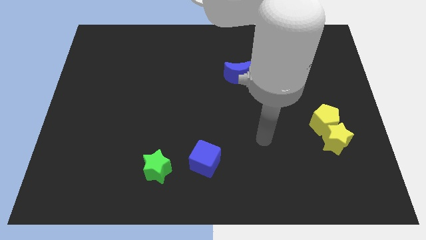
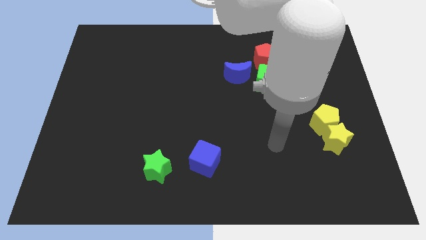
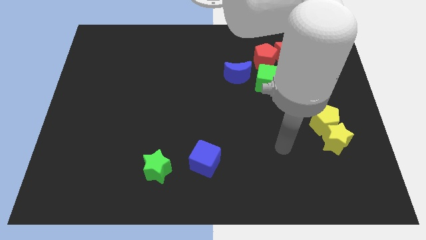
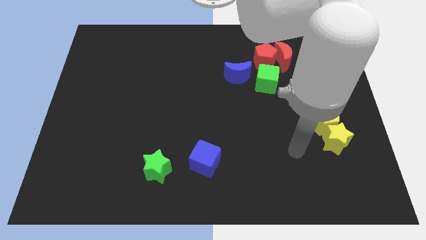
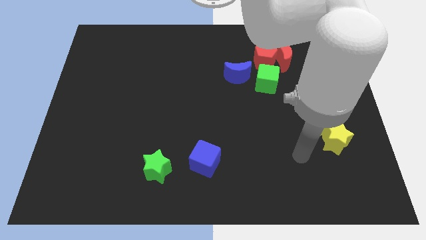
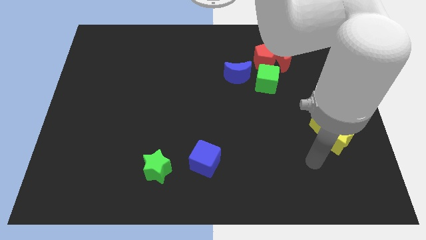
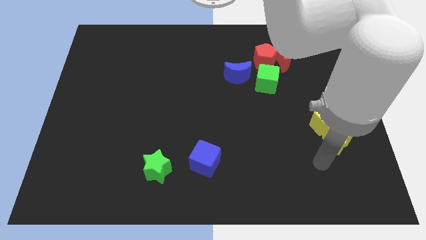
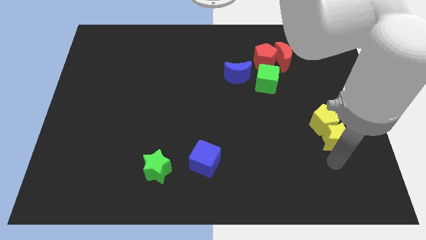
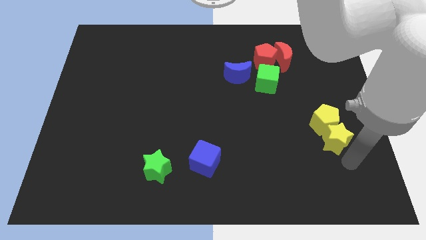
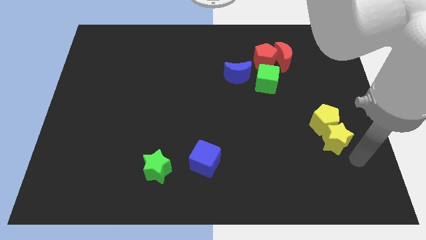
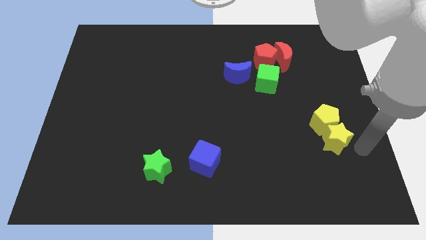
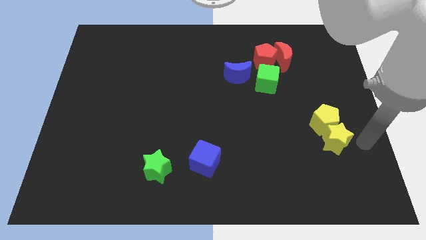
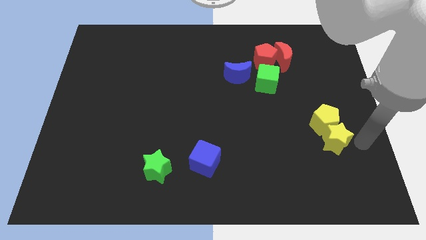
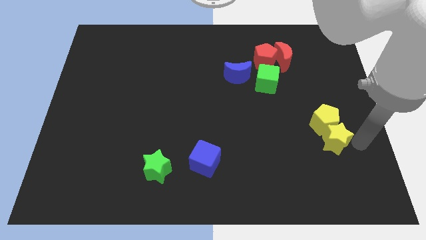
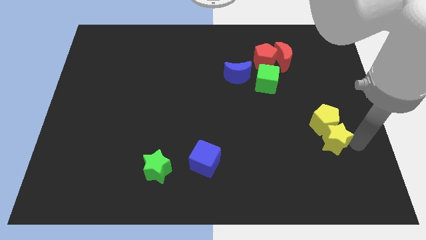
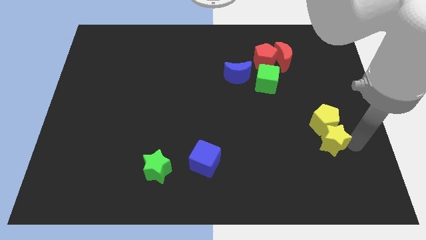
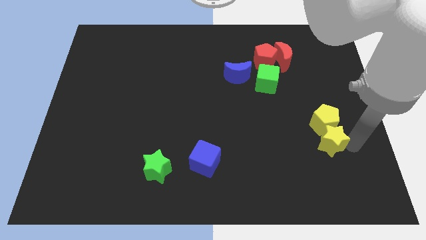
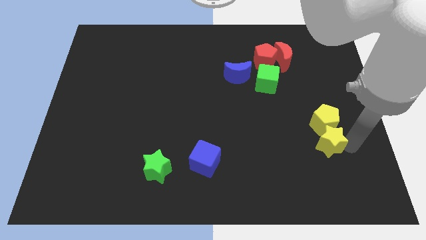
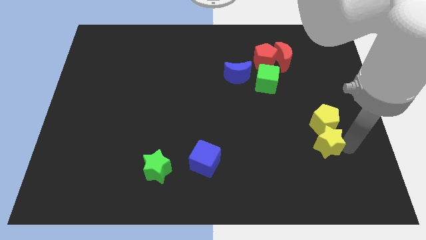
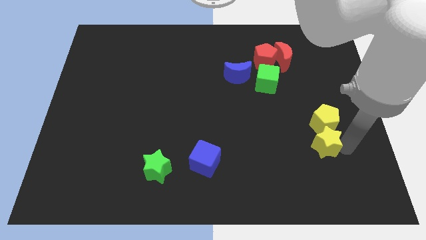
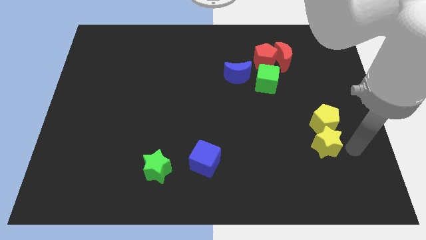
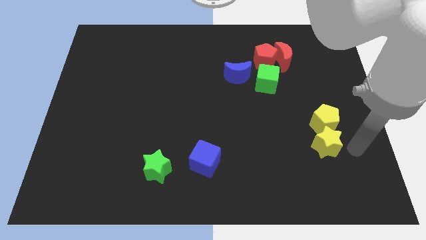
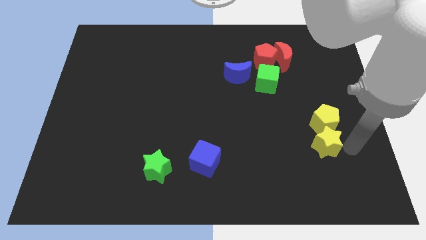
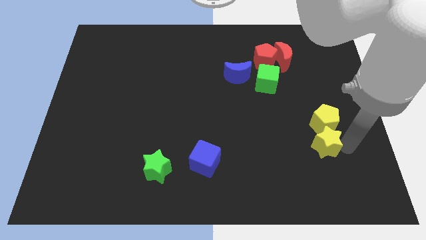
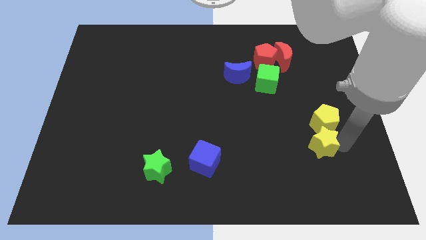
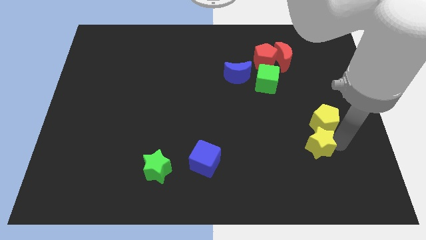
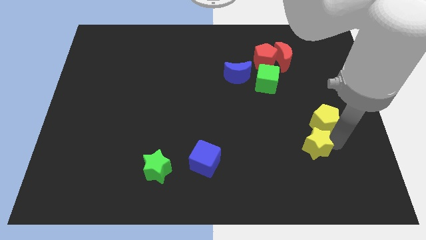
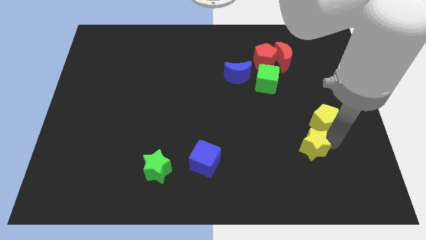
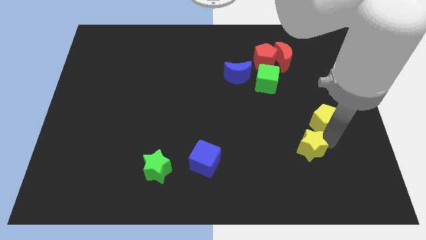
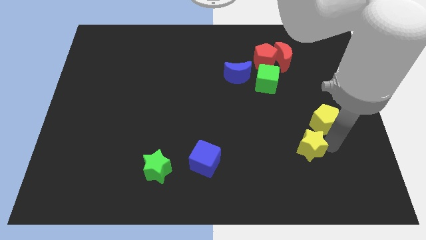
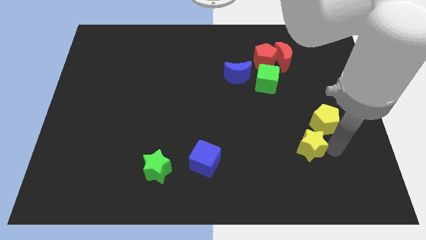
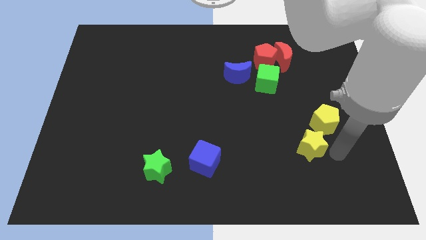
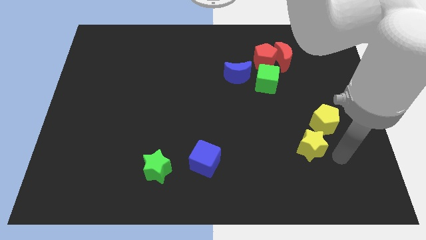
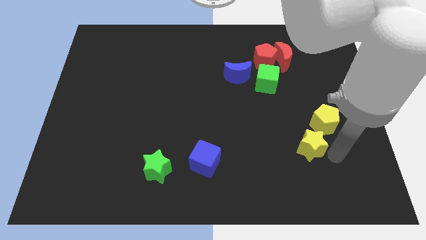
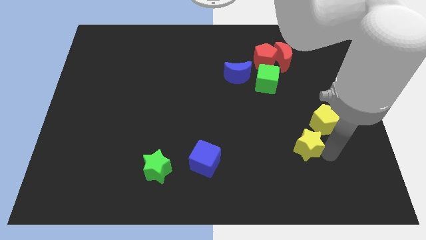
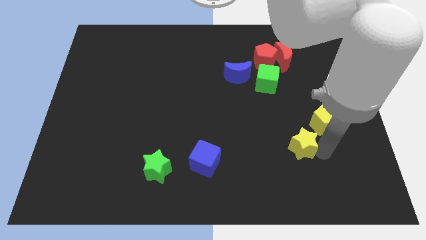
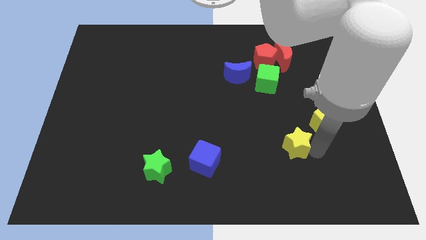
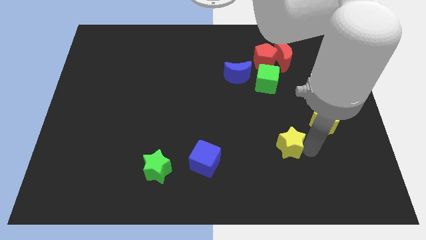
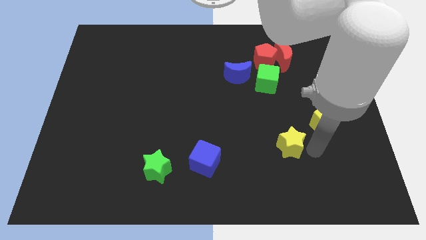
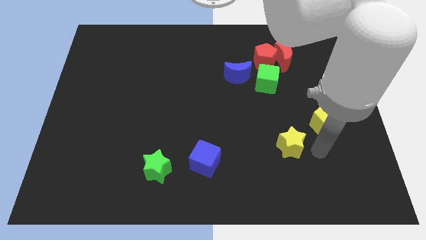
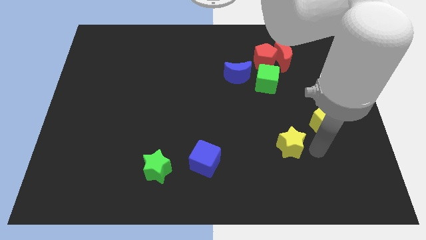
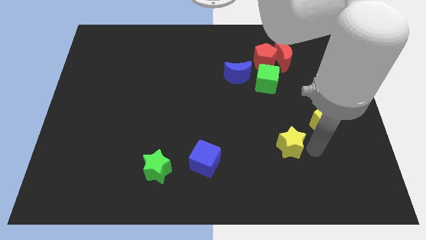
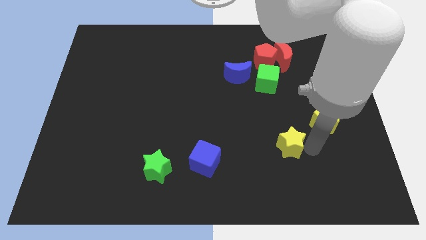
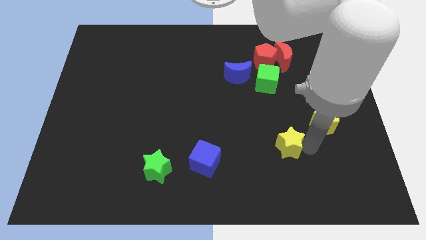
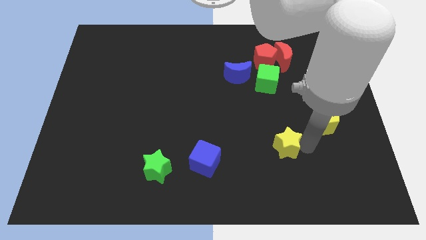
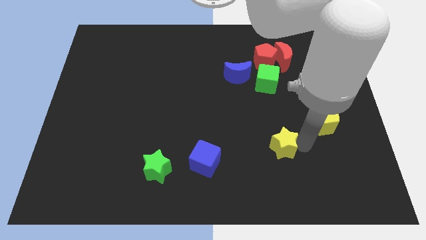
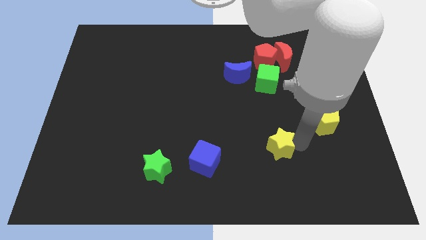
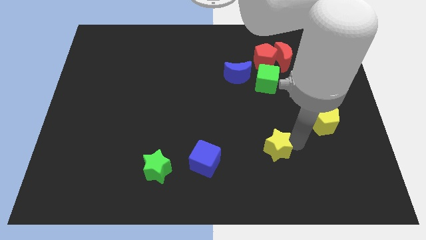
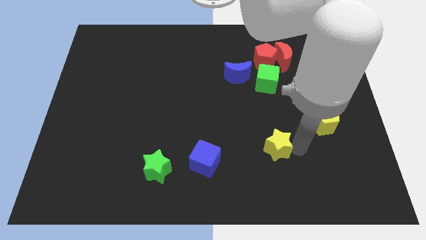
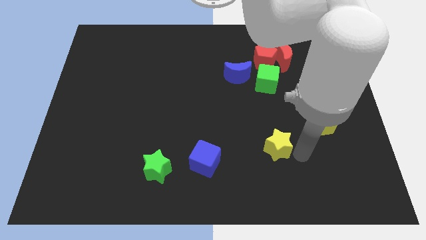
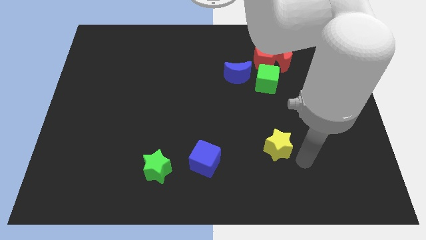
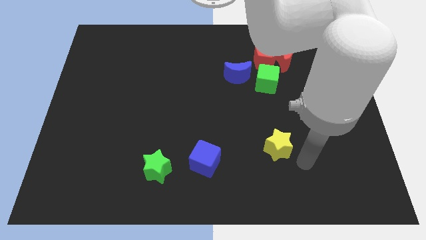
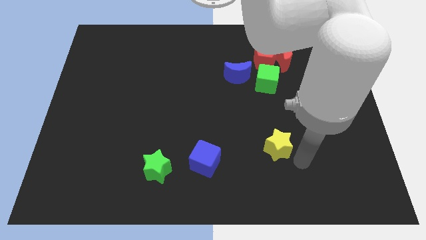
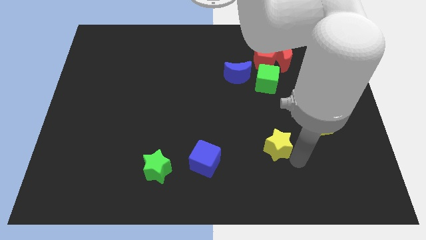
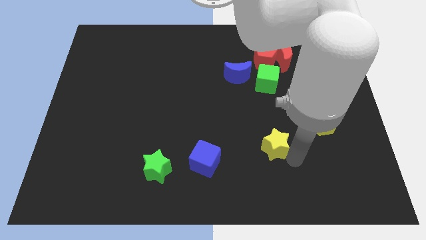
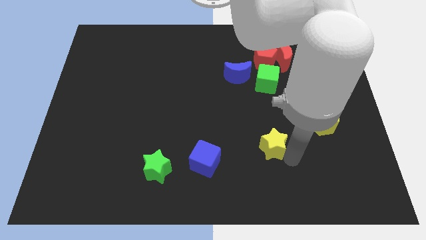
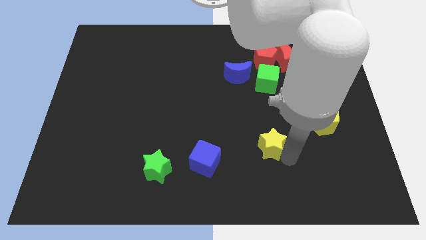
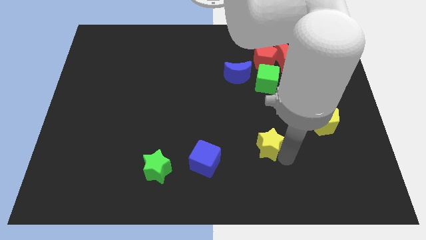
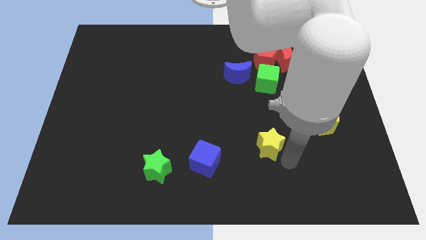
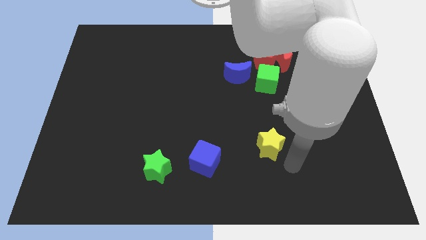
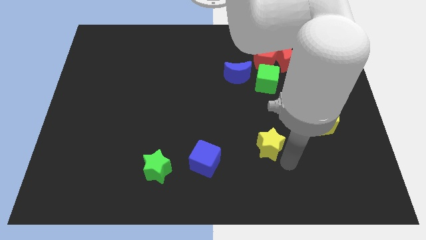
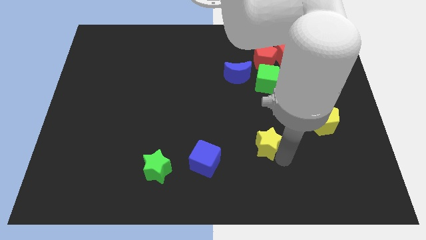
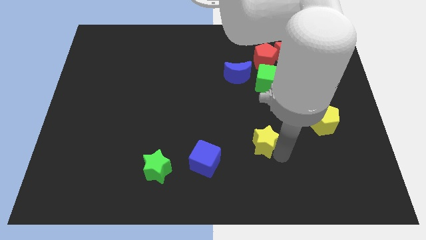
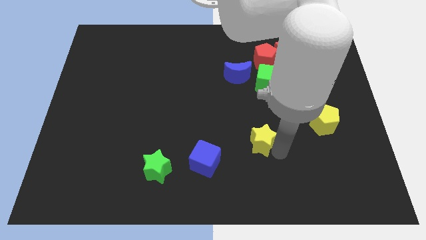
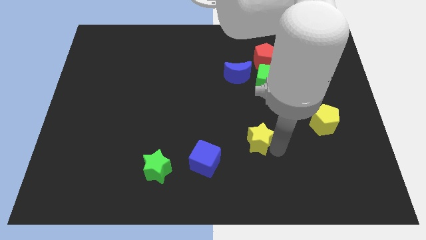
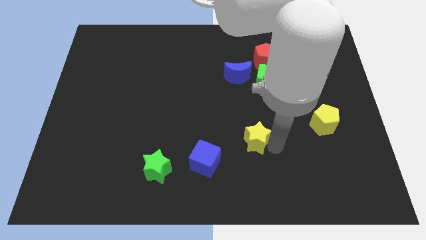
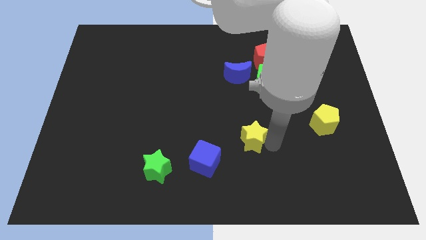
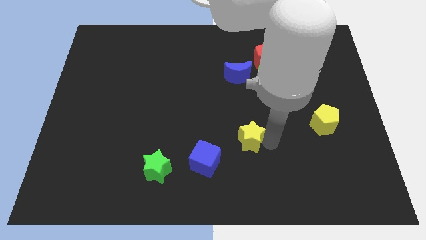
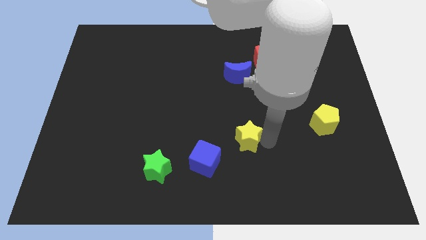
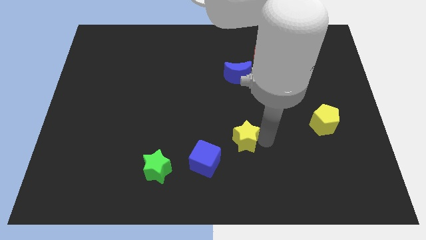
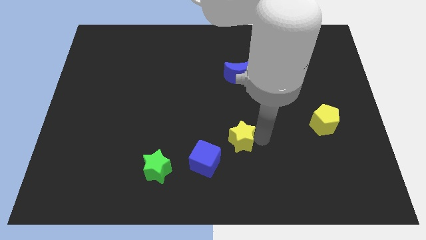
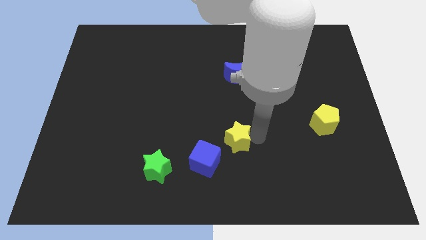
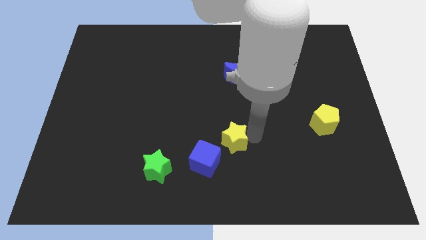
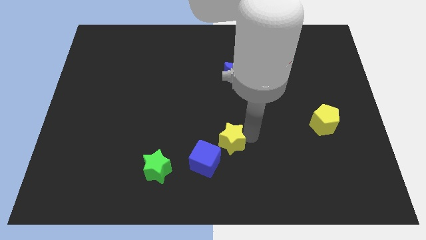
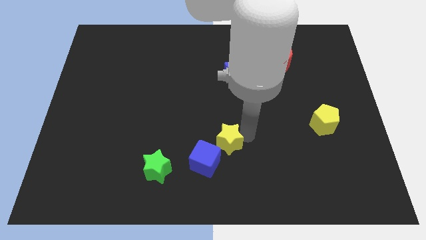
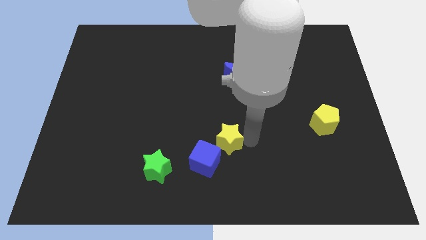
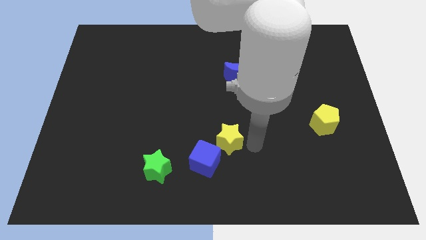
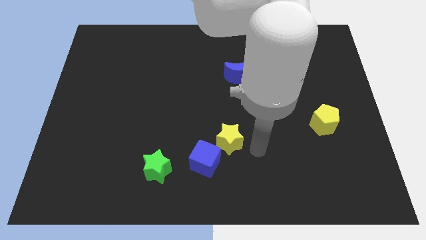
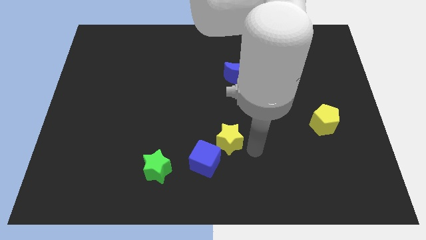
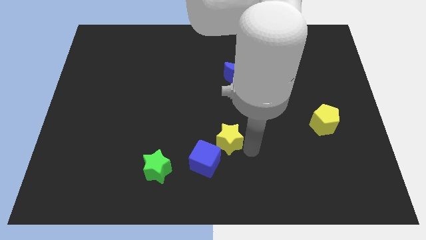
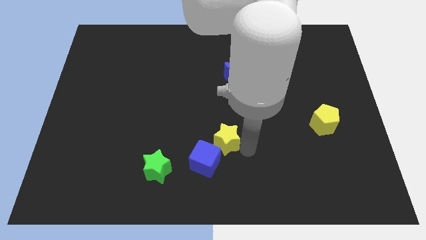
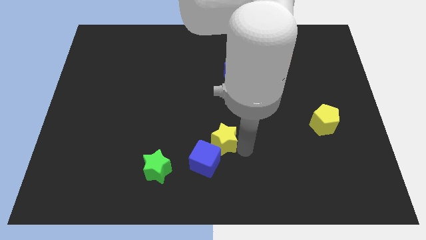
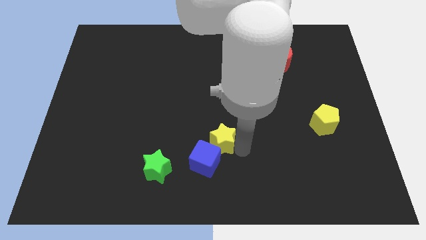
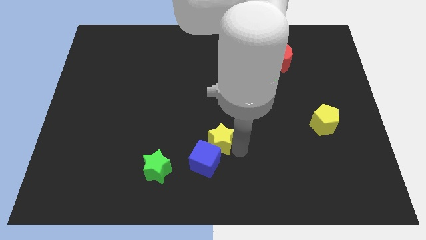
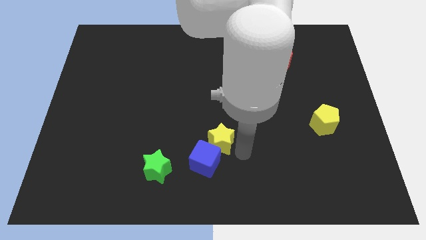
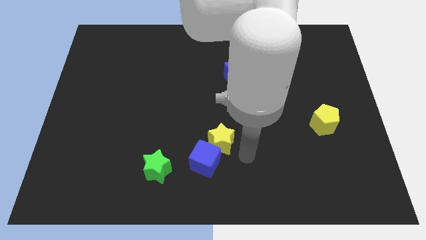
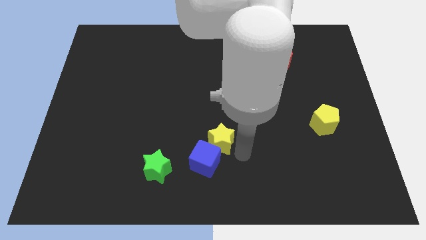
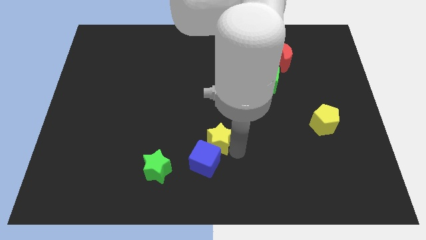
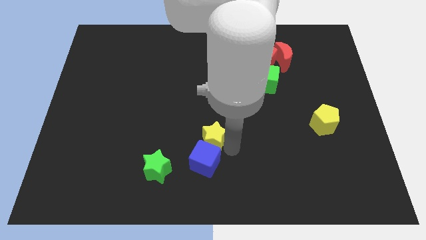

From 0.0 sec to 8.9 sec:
move the yellow star diagonally up and to the left of the blue cube
